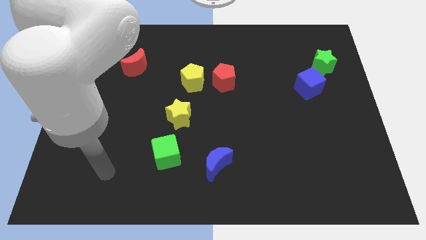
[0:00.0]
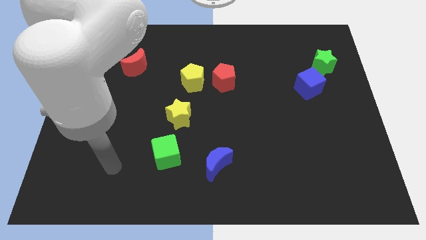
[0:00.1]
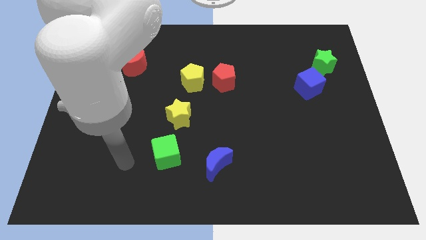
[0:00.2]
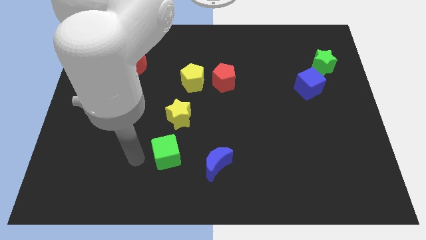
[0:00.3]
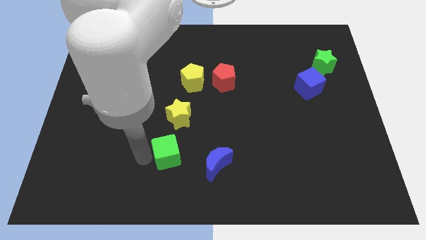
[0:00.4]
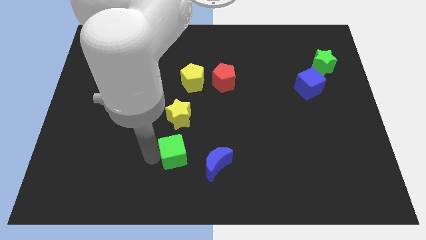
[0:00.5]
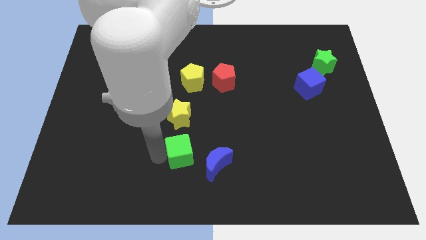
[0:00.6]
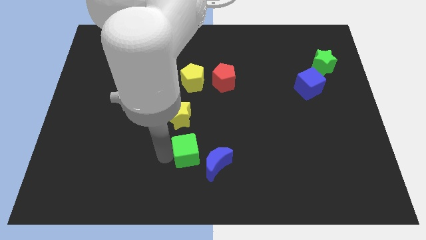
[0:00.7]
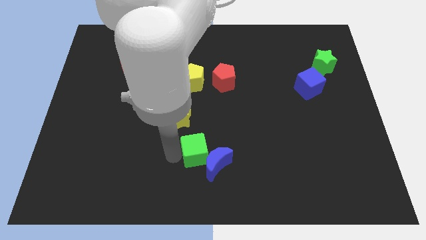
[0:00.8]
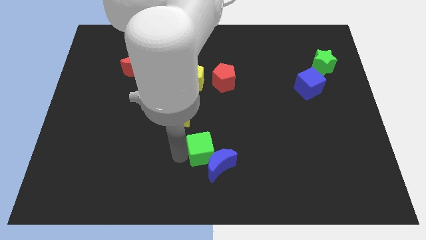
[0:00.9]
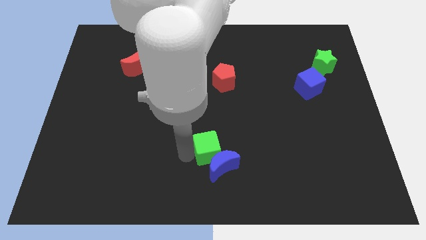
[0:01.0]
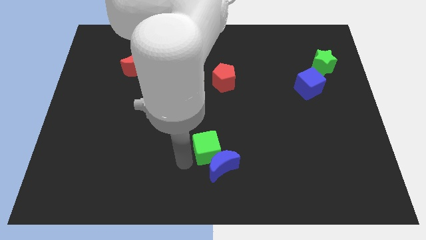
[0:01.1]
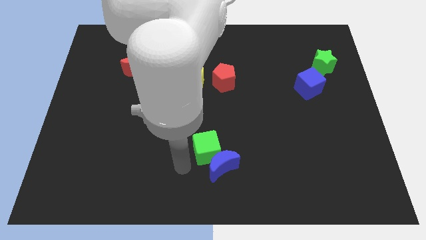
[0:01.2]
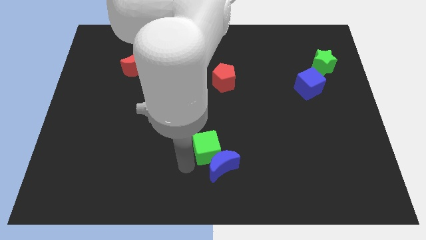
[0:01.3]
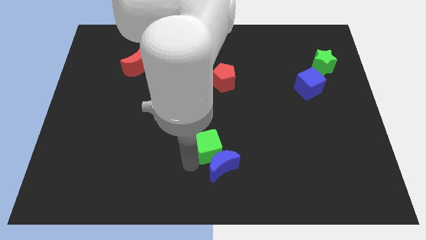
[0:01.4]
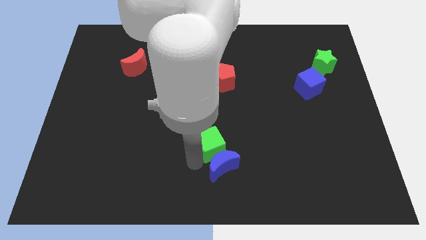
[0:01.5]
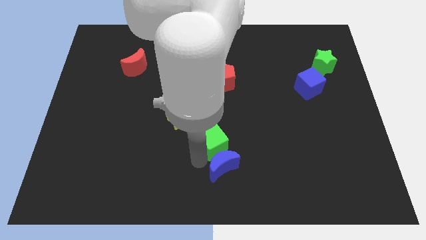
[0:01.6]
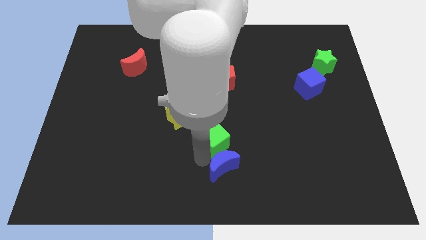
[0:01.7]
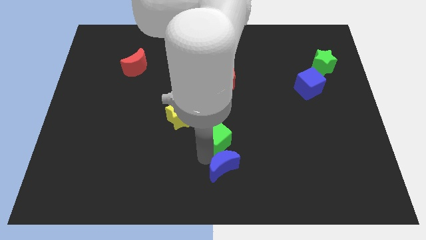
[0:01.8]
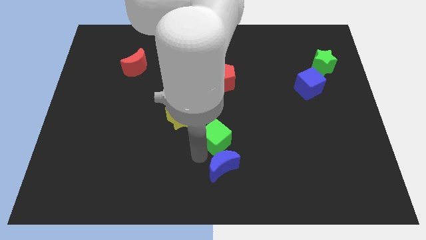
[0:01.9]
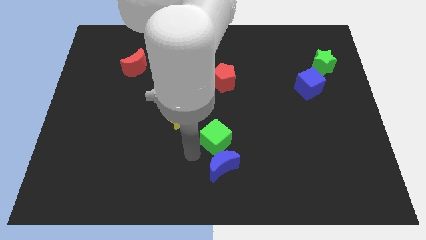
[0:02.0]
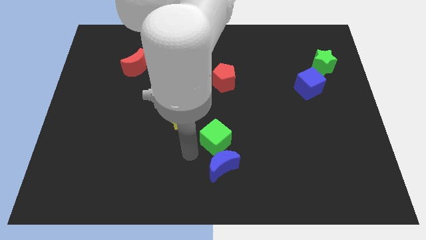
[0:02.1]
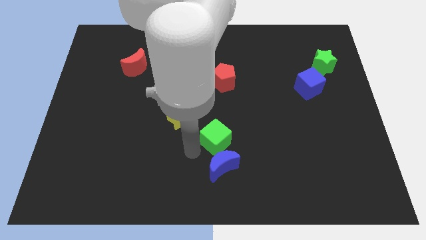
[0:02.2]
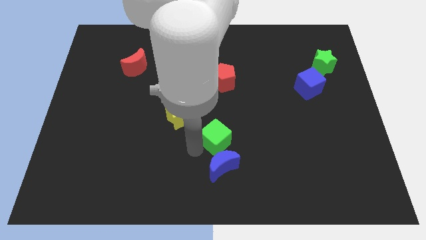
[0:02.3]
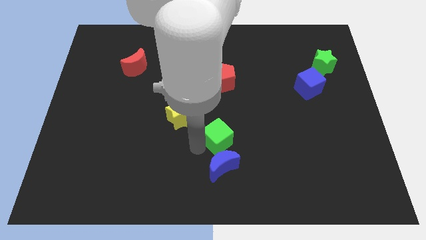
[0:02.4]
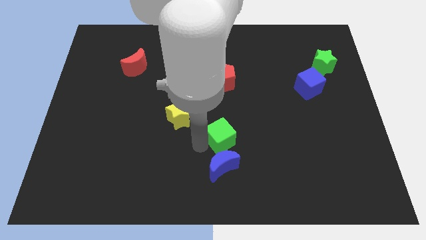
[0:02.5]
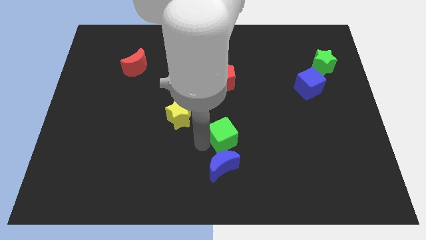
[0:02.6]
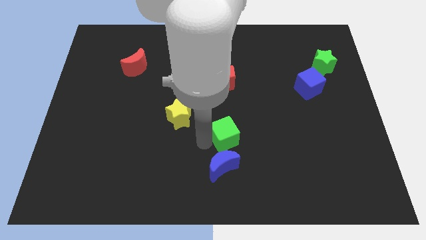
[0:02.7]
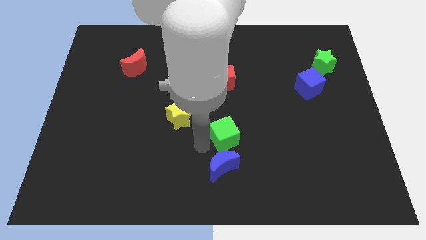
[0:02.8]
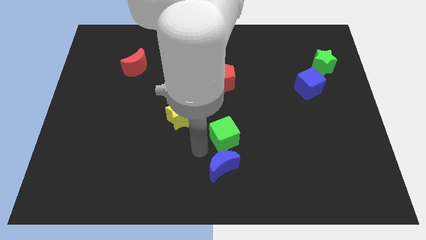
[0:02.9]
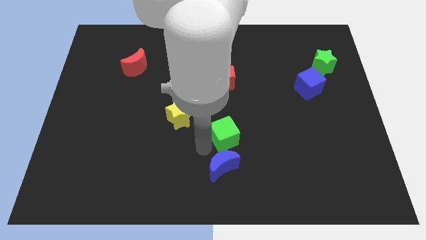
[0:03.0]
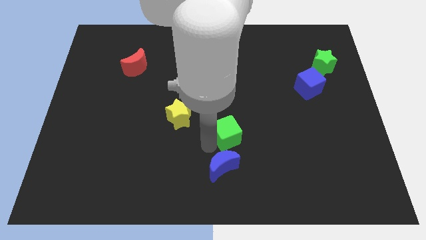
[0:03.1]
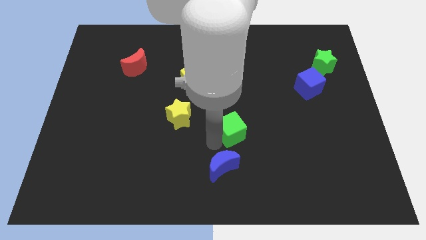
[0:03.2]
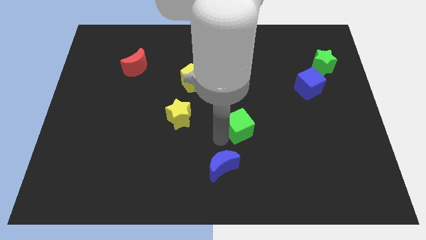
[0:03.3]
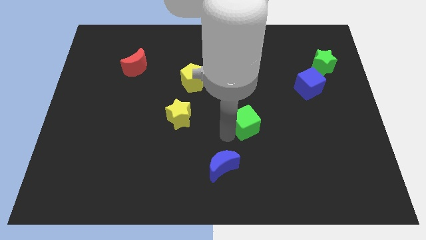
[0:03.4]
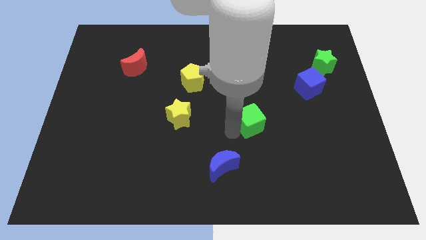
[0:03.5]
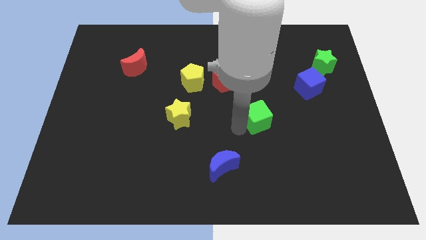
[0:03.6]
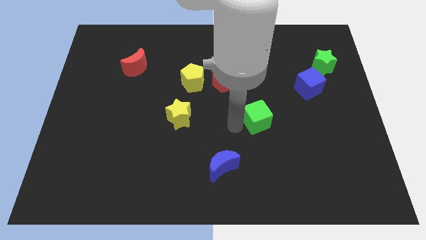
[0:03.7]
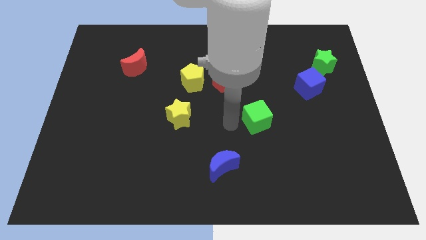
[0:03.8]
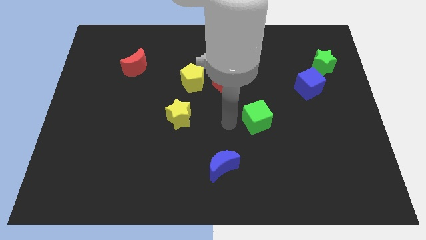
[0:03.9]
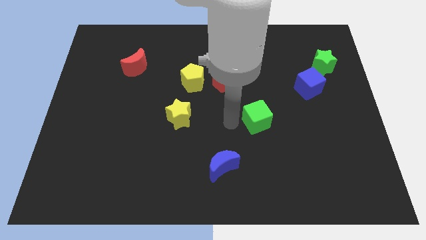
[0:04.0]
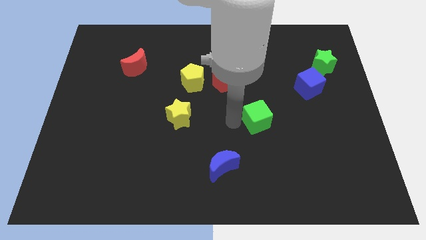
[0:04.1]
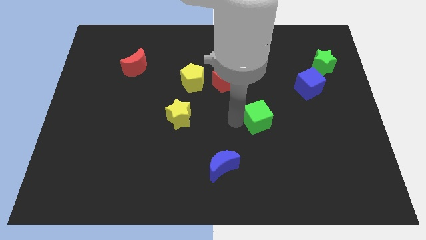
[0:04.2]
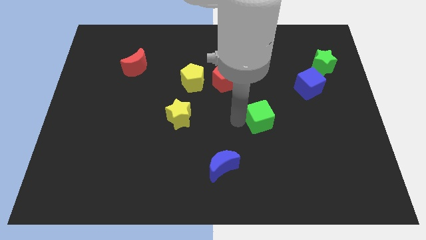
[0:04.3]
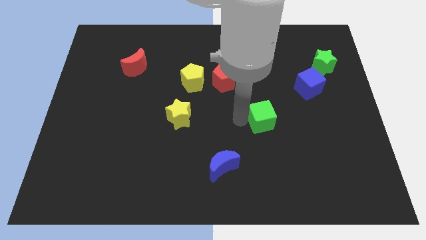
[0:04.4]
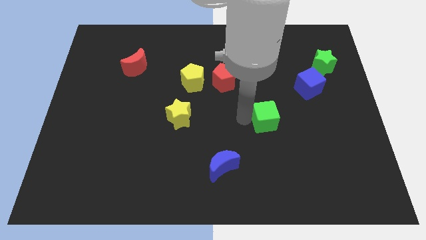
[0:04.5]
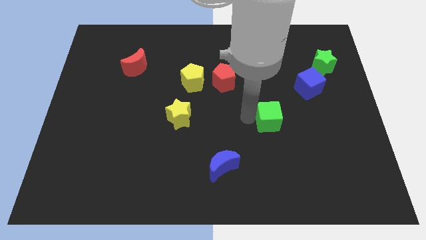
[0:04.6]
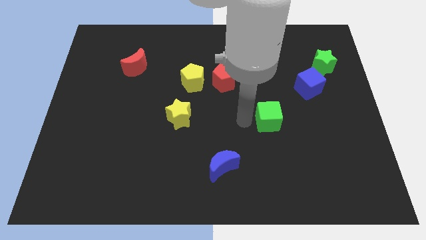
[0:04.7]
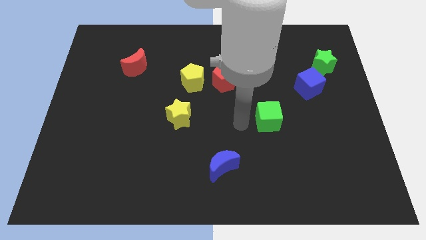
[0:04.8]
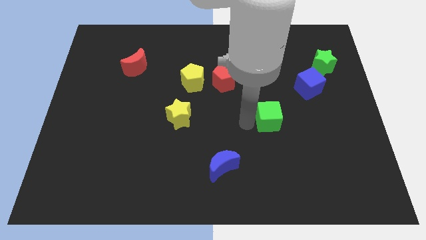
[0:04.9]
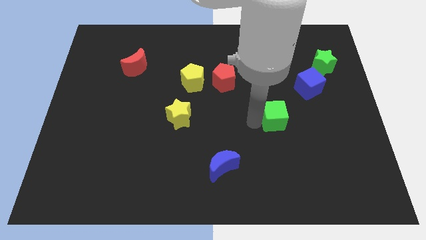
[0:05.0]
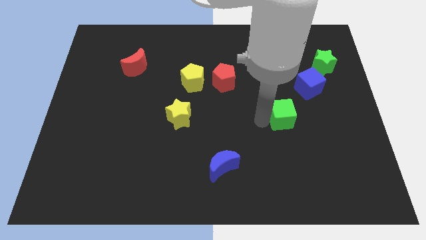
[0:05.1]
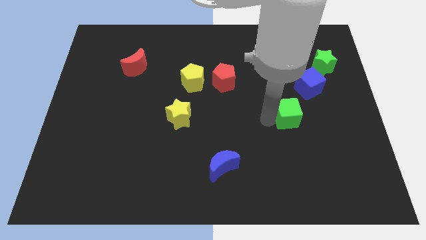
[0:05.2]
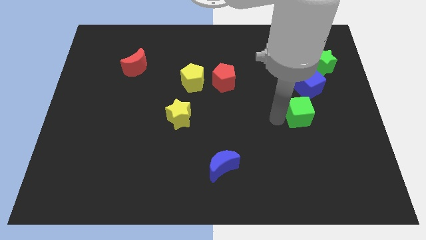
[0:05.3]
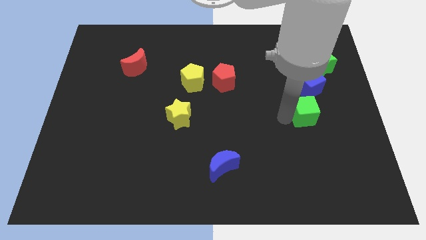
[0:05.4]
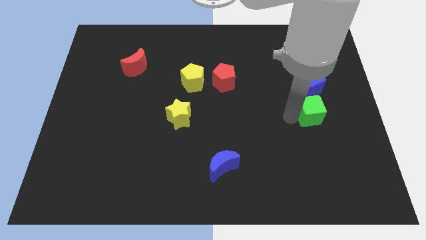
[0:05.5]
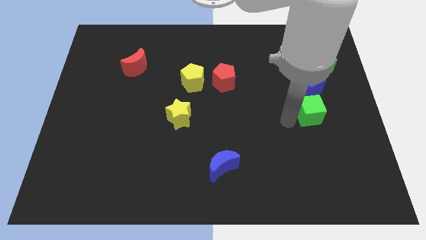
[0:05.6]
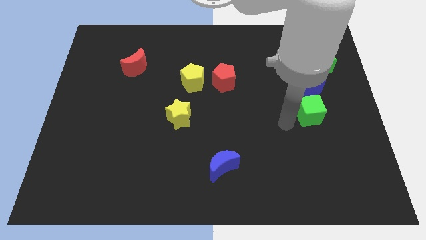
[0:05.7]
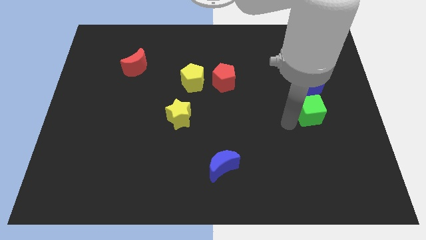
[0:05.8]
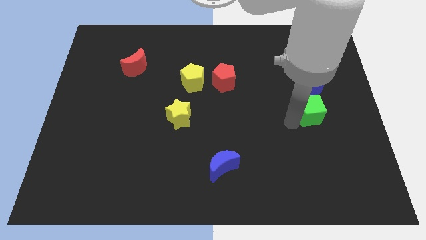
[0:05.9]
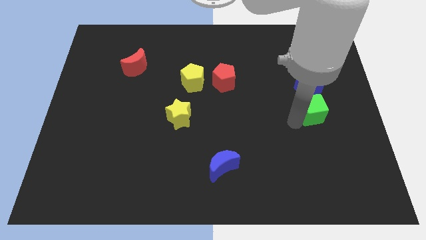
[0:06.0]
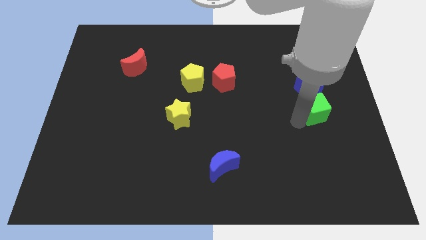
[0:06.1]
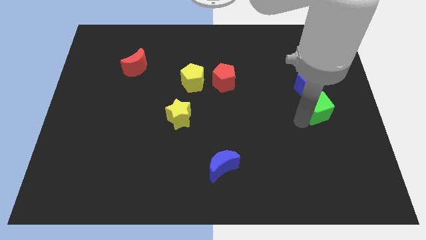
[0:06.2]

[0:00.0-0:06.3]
move the green cube diagonally down and to the right of the blue cube

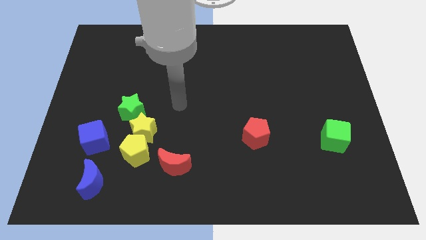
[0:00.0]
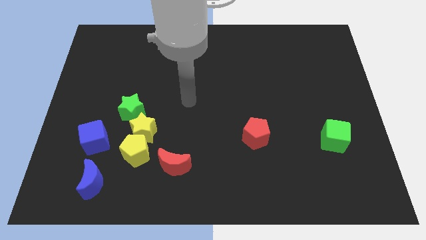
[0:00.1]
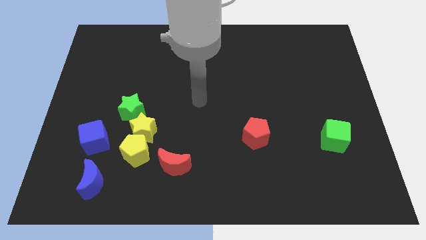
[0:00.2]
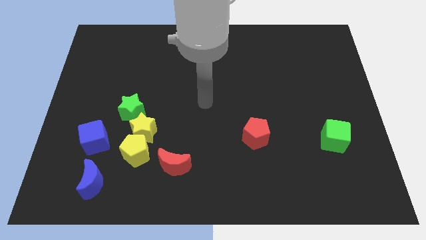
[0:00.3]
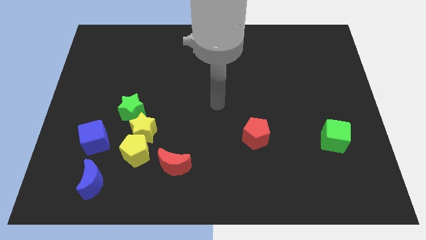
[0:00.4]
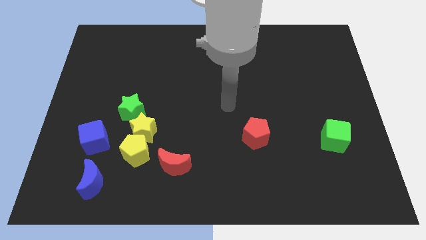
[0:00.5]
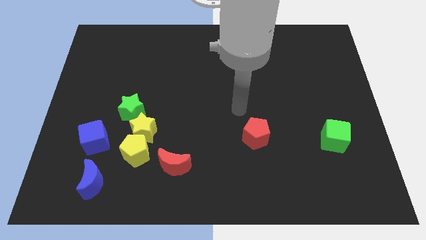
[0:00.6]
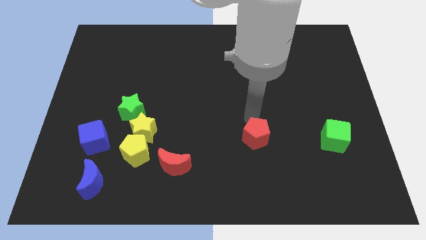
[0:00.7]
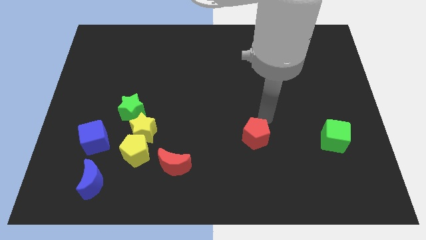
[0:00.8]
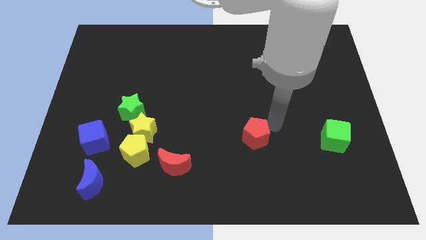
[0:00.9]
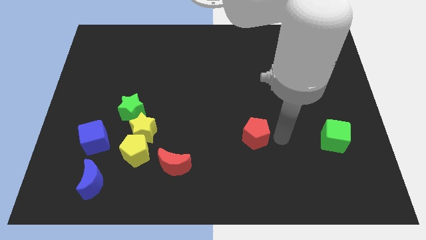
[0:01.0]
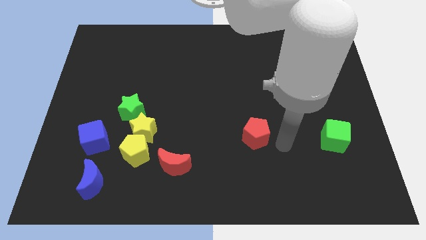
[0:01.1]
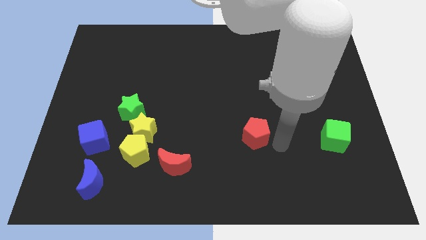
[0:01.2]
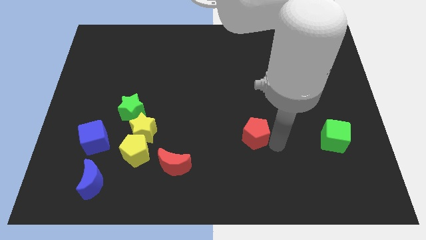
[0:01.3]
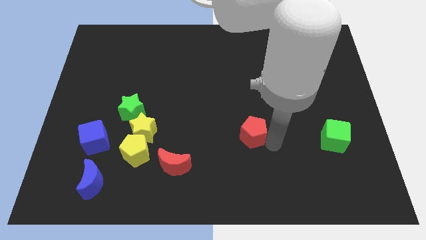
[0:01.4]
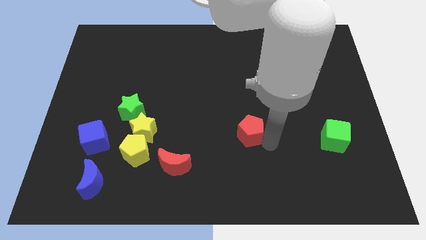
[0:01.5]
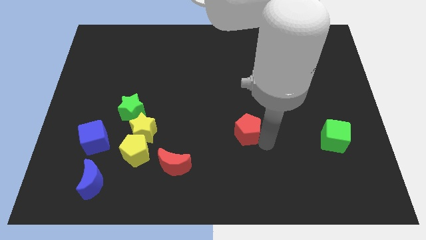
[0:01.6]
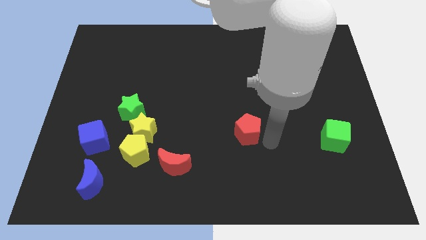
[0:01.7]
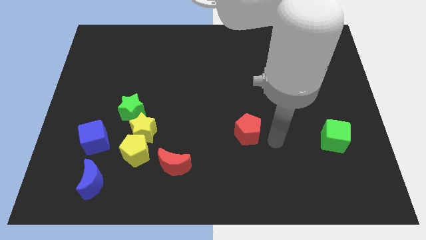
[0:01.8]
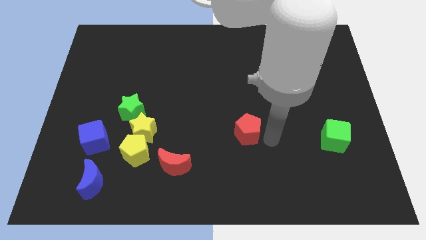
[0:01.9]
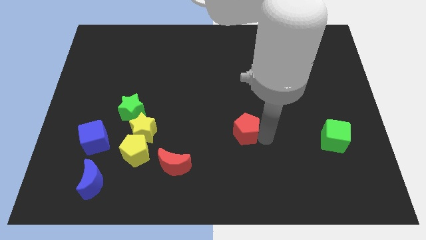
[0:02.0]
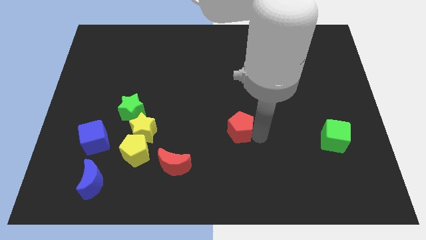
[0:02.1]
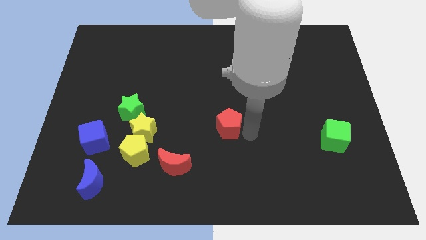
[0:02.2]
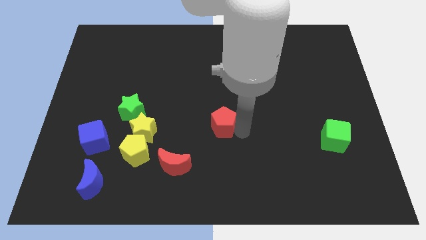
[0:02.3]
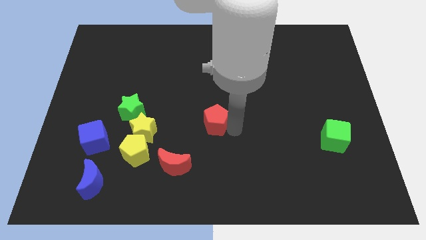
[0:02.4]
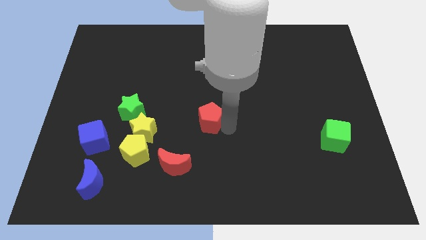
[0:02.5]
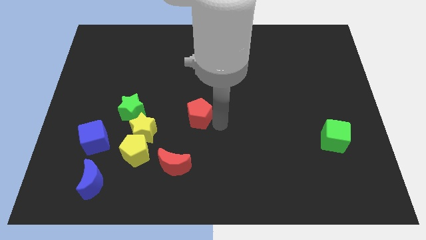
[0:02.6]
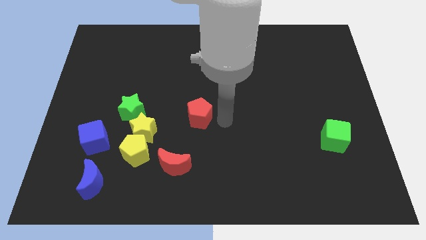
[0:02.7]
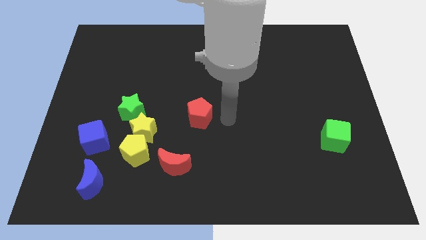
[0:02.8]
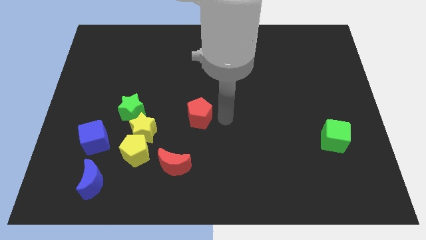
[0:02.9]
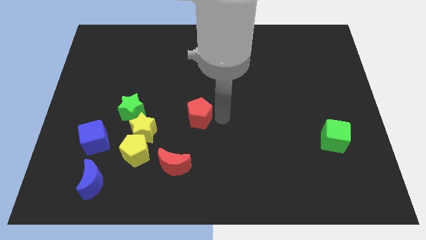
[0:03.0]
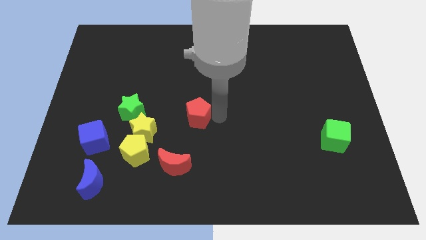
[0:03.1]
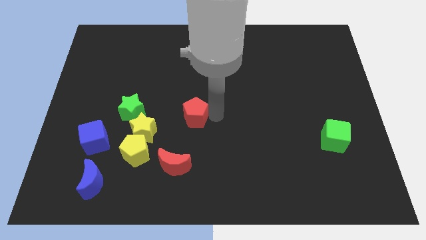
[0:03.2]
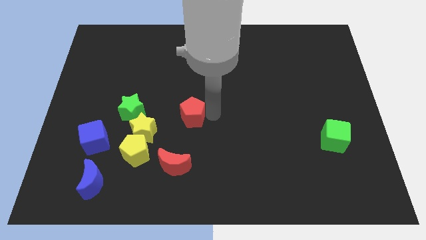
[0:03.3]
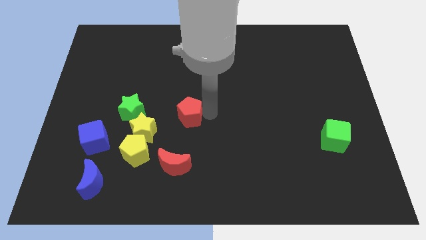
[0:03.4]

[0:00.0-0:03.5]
move the red pentagon to the top right side of the yellow star
